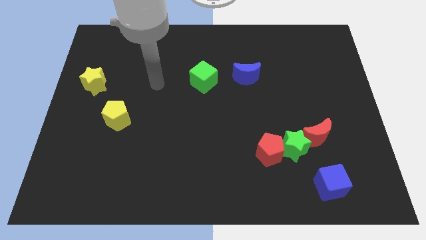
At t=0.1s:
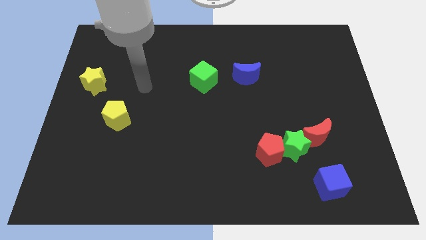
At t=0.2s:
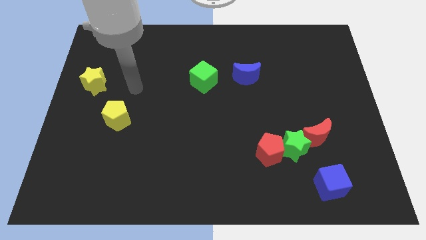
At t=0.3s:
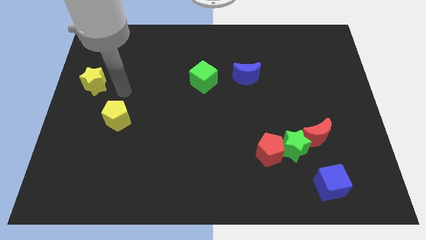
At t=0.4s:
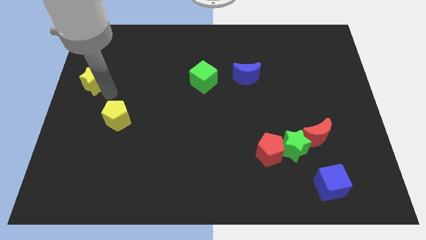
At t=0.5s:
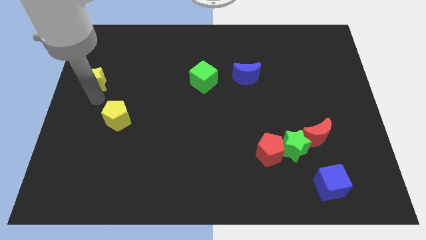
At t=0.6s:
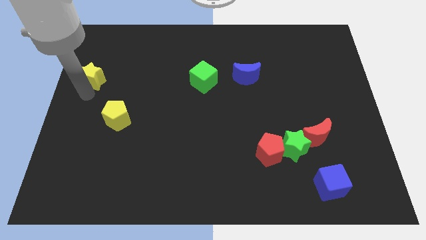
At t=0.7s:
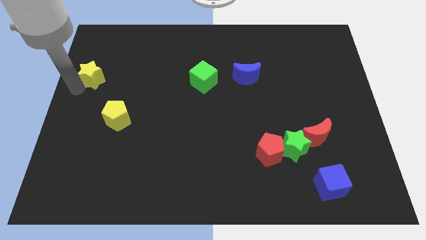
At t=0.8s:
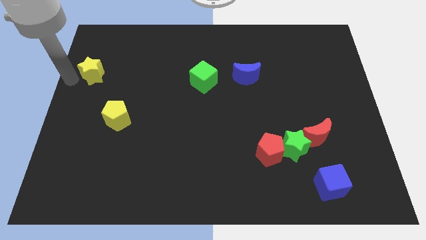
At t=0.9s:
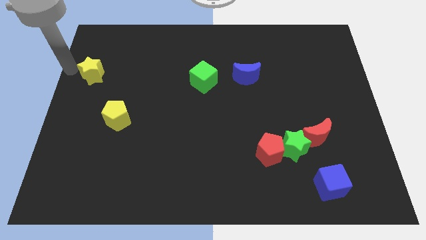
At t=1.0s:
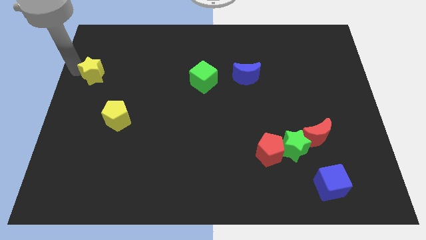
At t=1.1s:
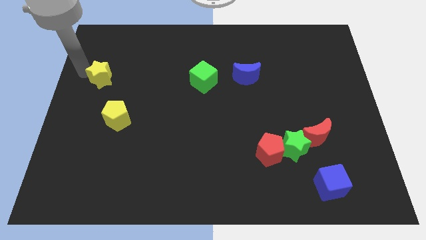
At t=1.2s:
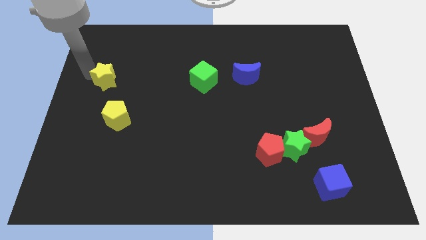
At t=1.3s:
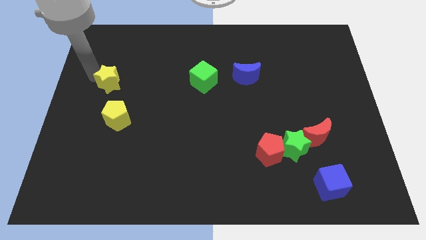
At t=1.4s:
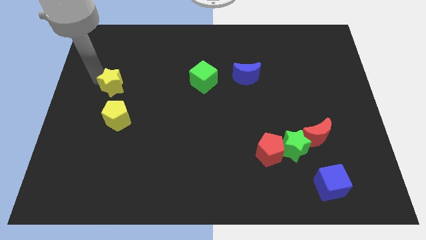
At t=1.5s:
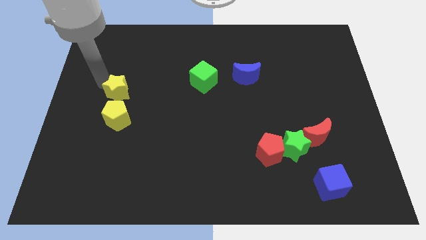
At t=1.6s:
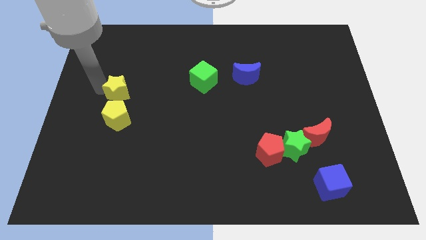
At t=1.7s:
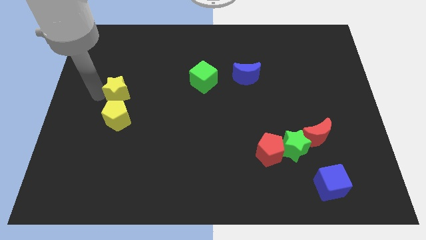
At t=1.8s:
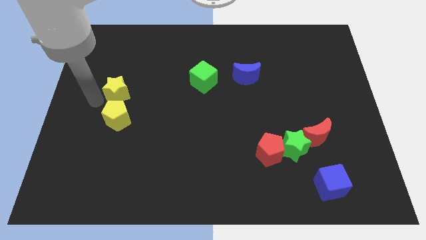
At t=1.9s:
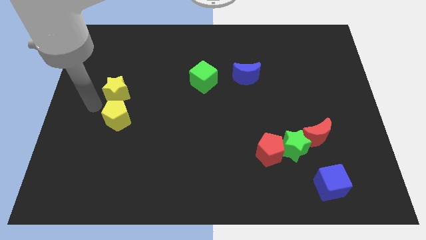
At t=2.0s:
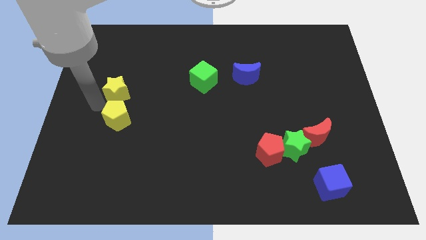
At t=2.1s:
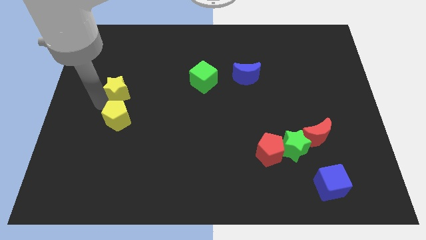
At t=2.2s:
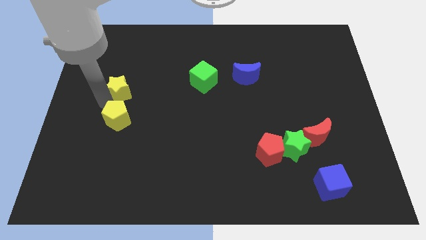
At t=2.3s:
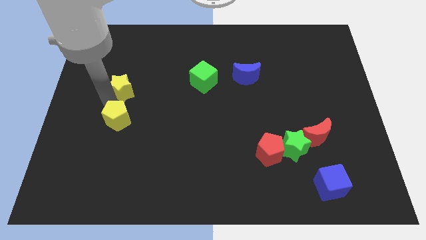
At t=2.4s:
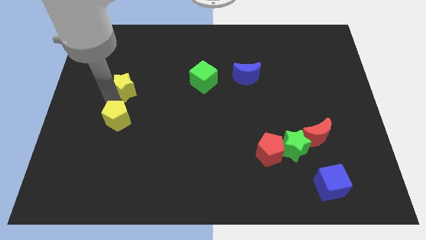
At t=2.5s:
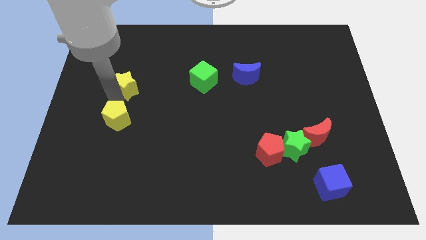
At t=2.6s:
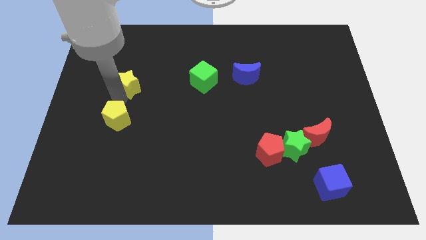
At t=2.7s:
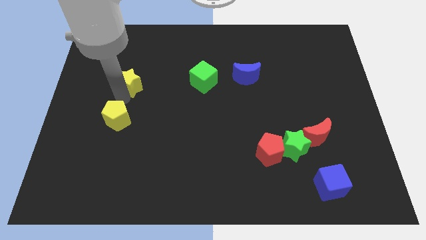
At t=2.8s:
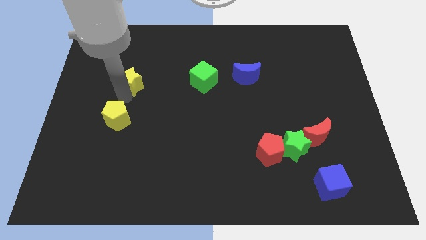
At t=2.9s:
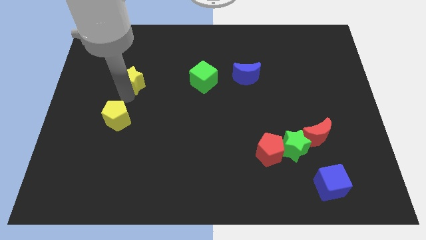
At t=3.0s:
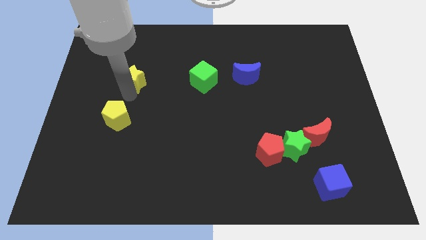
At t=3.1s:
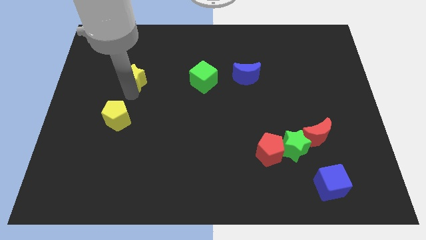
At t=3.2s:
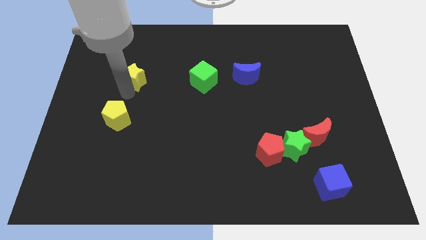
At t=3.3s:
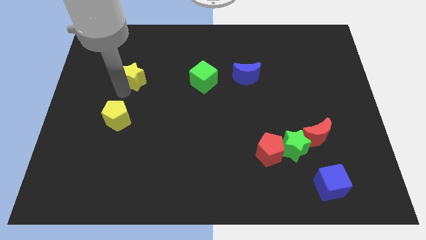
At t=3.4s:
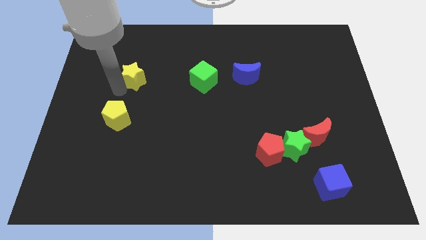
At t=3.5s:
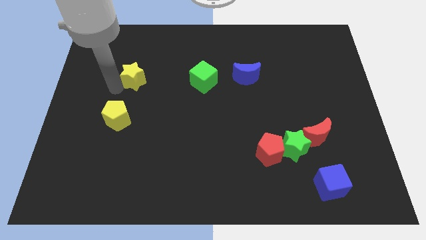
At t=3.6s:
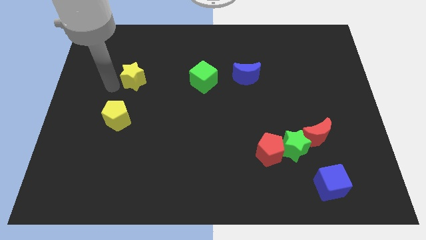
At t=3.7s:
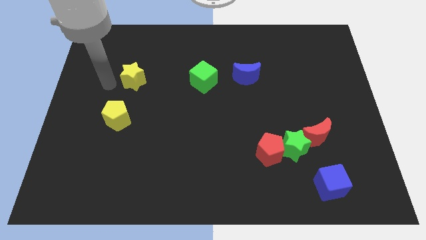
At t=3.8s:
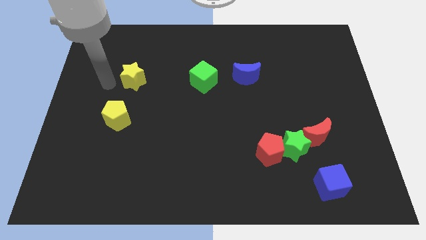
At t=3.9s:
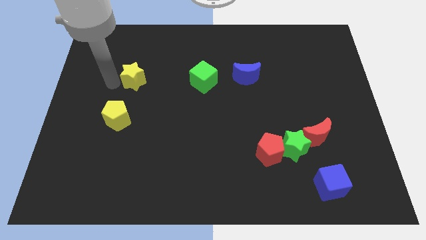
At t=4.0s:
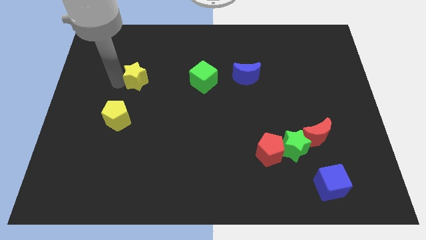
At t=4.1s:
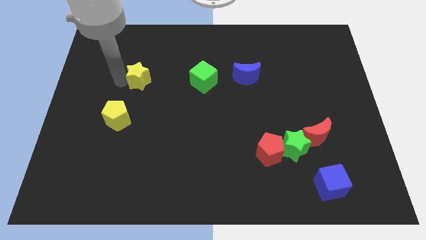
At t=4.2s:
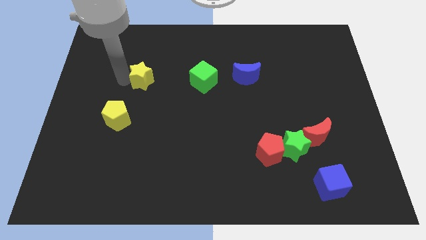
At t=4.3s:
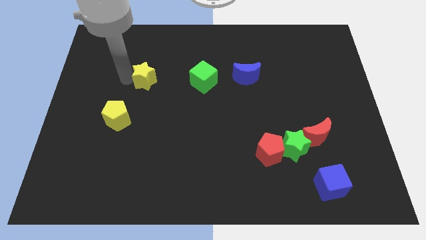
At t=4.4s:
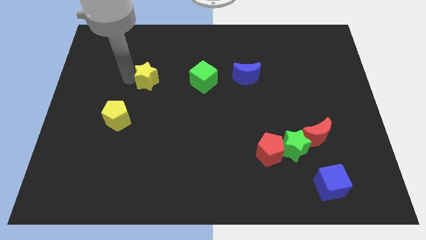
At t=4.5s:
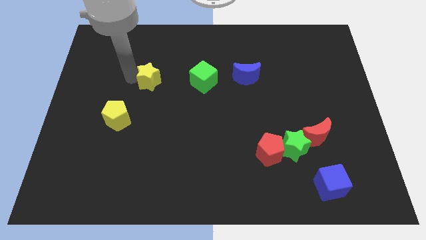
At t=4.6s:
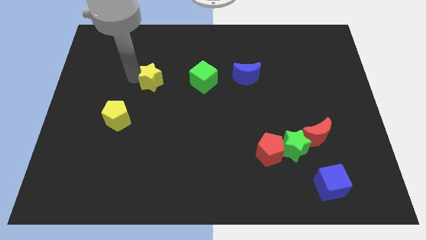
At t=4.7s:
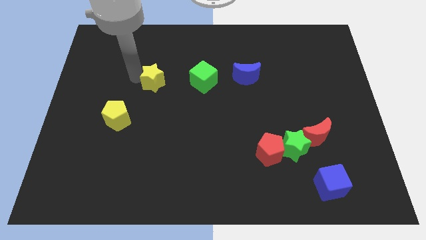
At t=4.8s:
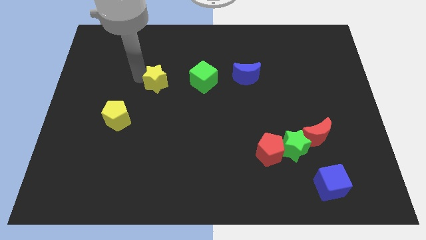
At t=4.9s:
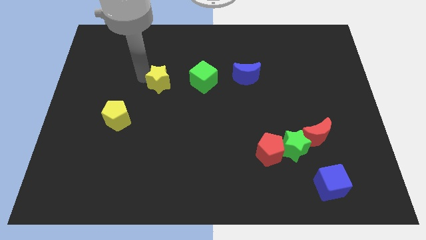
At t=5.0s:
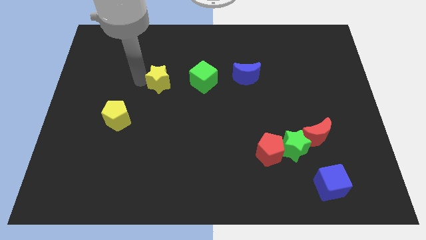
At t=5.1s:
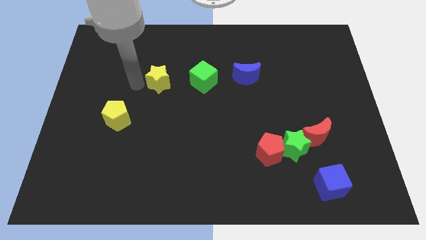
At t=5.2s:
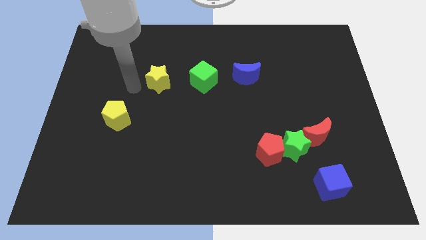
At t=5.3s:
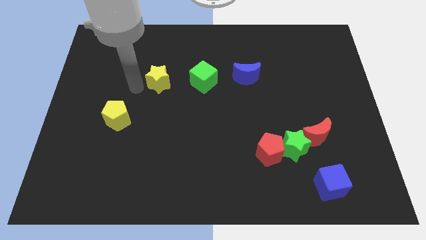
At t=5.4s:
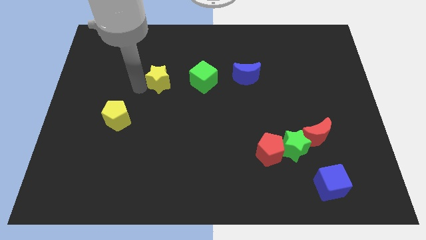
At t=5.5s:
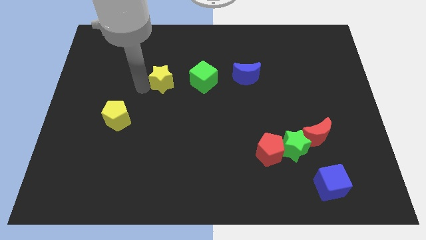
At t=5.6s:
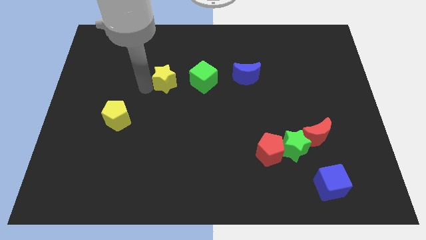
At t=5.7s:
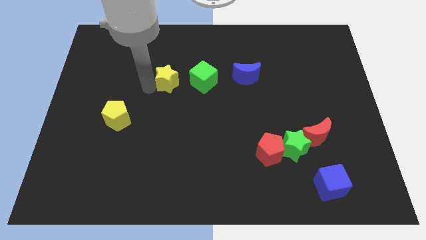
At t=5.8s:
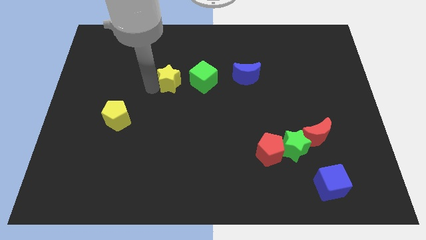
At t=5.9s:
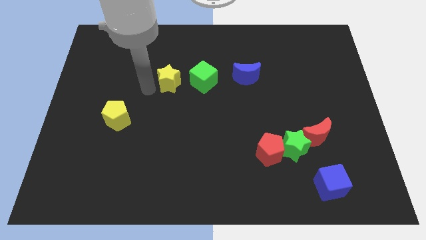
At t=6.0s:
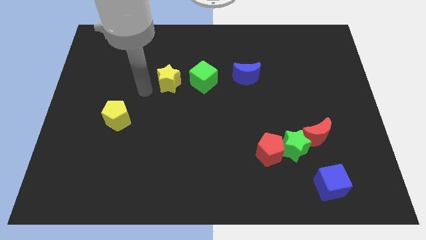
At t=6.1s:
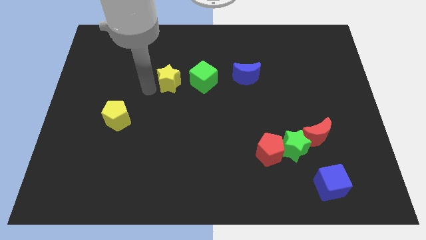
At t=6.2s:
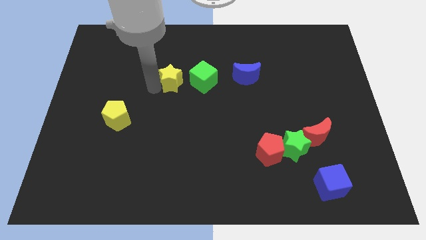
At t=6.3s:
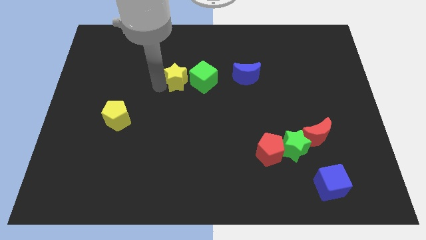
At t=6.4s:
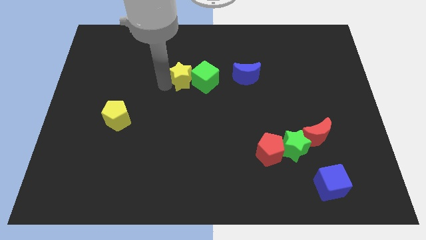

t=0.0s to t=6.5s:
move the yellow star left of the blue moon

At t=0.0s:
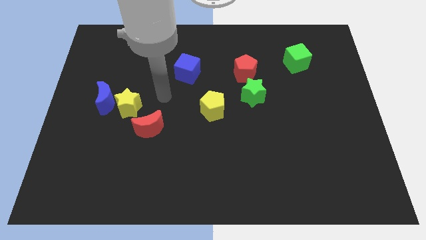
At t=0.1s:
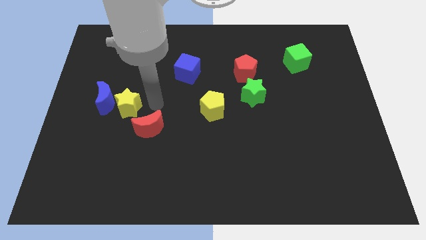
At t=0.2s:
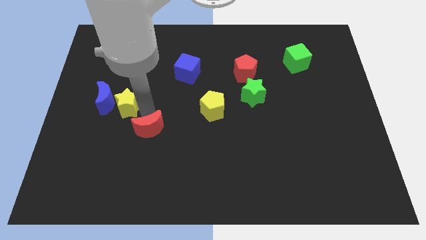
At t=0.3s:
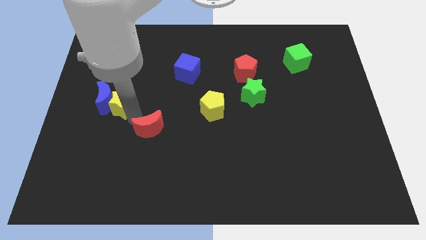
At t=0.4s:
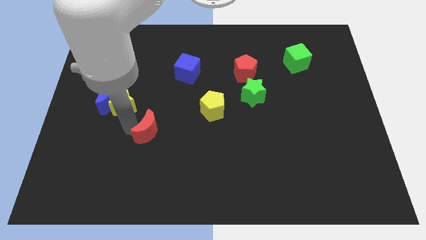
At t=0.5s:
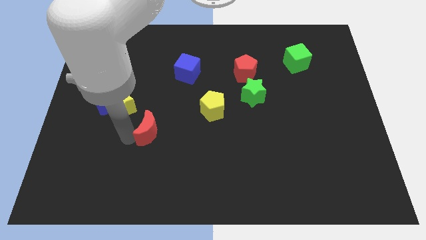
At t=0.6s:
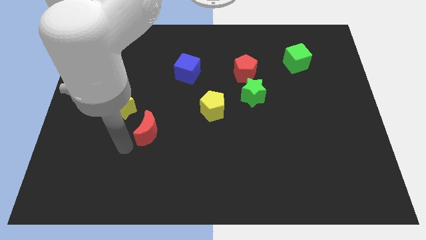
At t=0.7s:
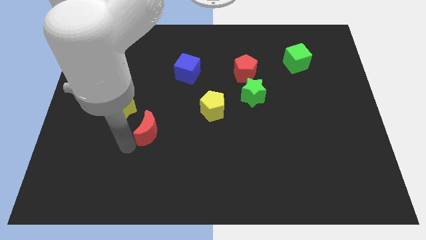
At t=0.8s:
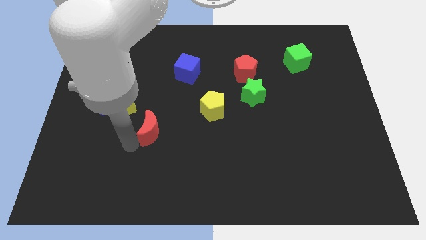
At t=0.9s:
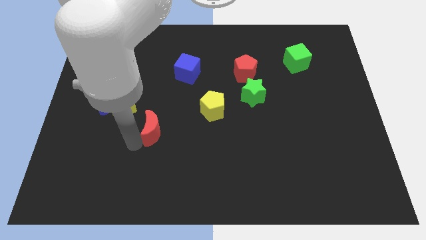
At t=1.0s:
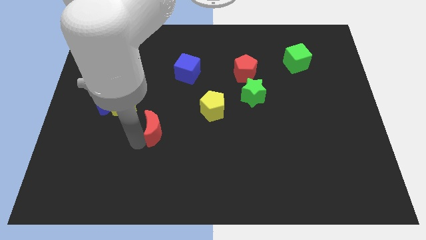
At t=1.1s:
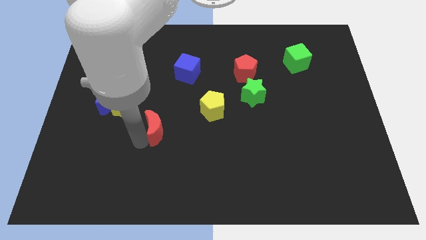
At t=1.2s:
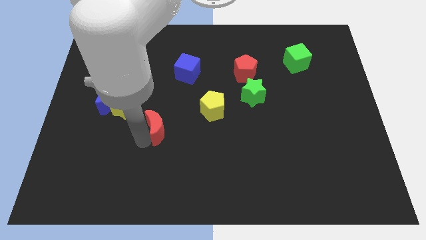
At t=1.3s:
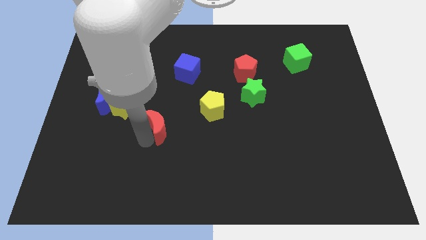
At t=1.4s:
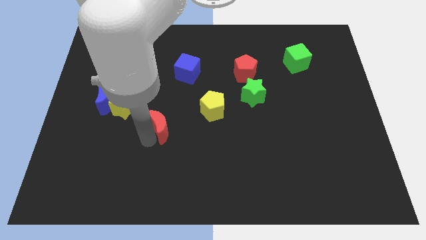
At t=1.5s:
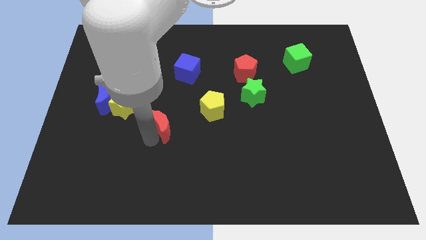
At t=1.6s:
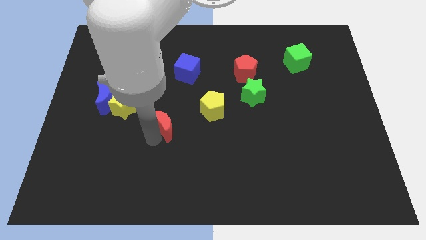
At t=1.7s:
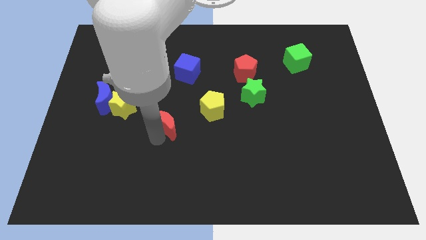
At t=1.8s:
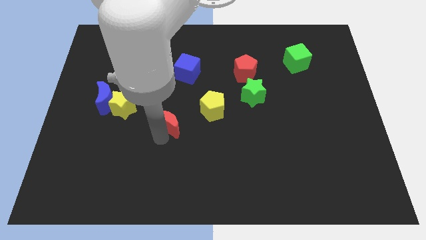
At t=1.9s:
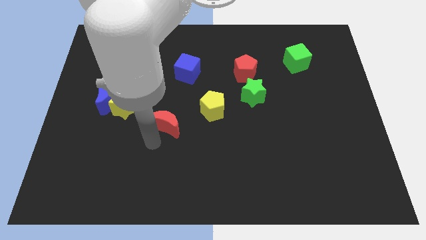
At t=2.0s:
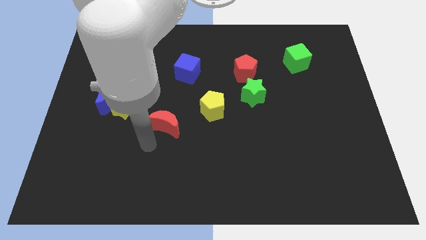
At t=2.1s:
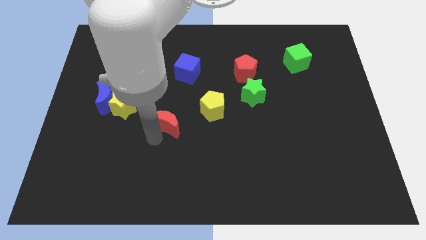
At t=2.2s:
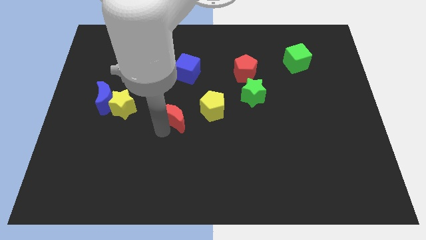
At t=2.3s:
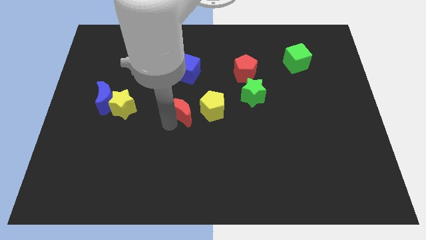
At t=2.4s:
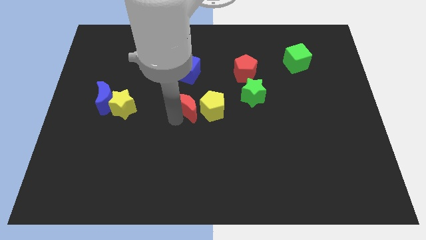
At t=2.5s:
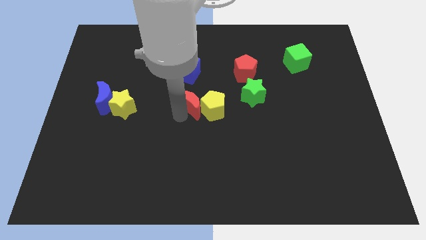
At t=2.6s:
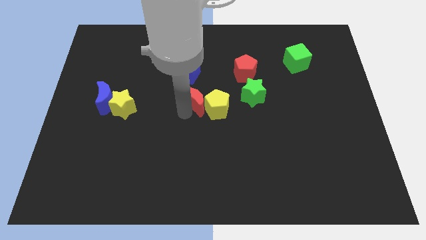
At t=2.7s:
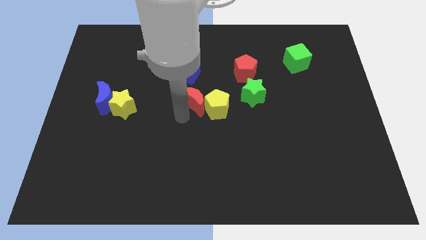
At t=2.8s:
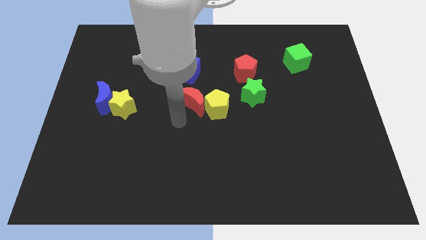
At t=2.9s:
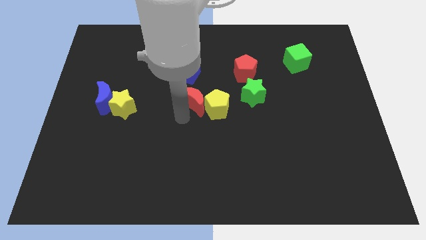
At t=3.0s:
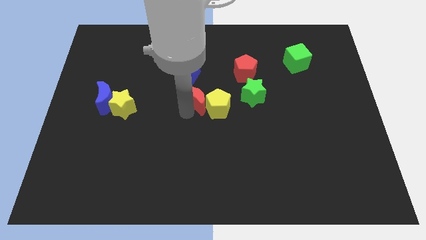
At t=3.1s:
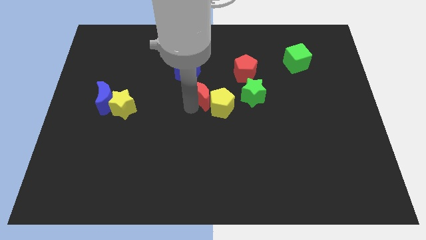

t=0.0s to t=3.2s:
put the red moon to the bottom right side of the blue cube
